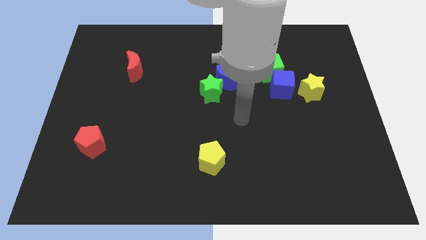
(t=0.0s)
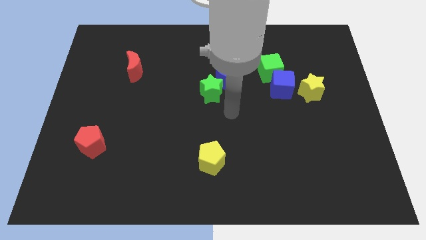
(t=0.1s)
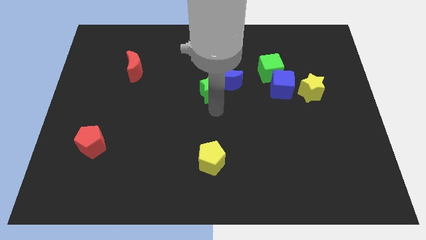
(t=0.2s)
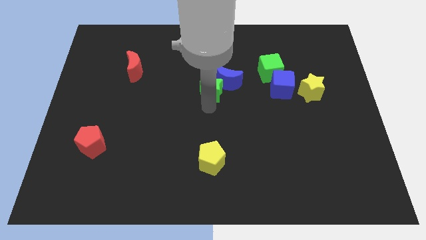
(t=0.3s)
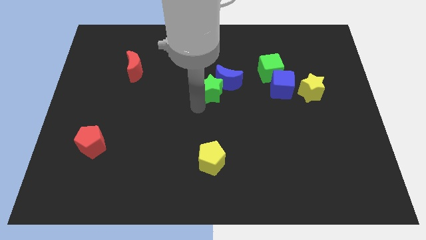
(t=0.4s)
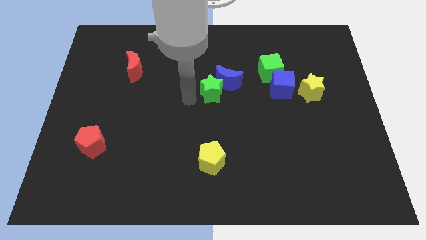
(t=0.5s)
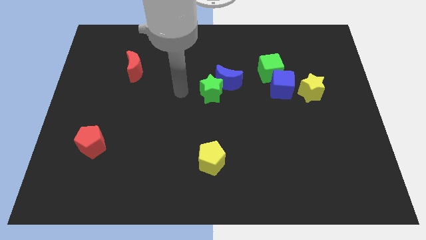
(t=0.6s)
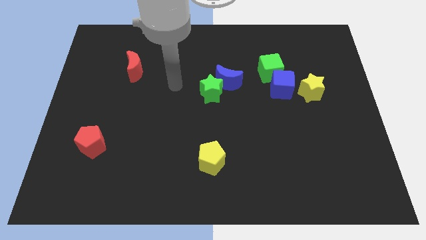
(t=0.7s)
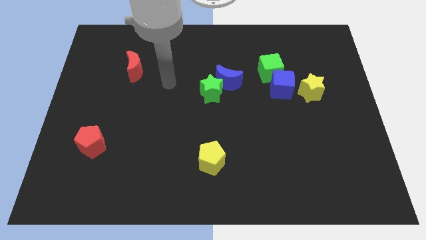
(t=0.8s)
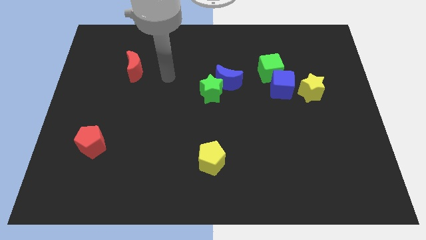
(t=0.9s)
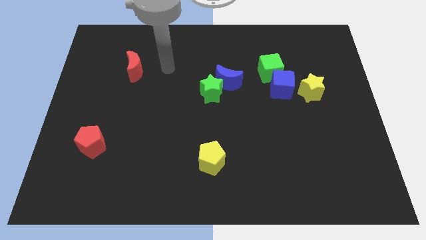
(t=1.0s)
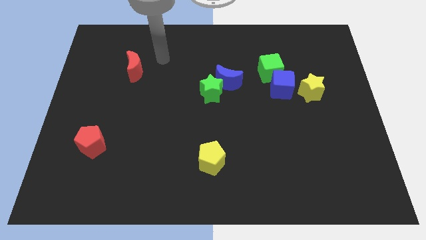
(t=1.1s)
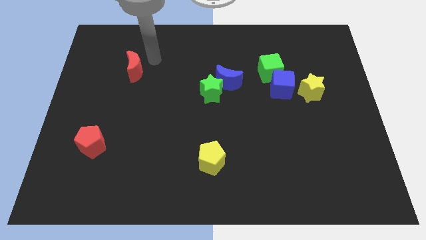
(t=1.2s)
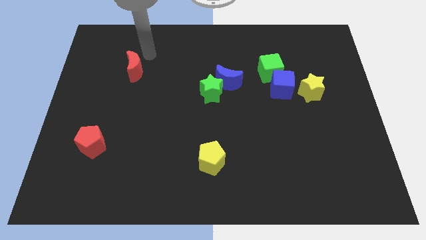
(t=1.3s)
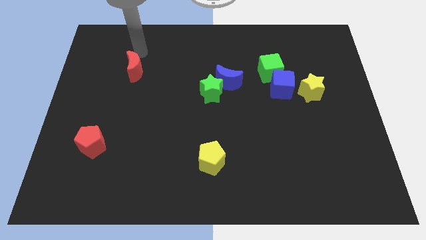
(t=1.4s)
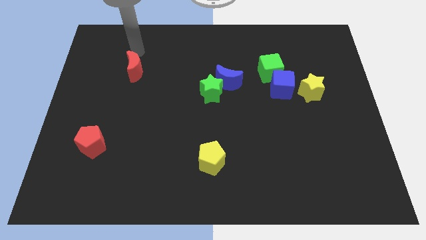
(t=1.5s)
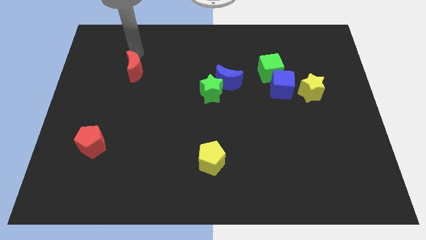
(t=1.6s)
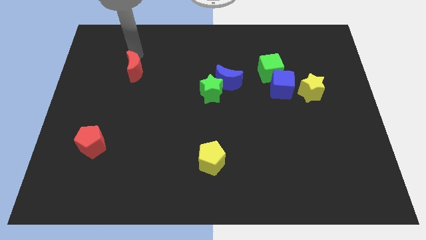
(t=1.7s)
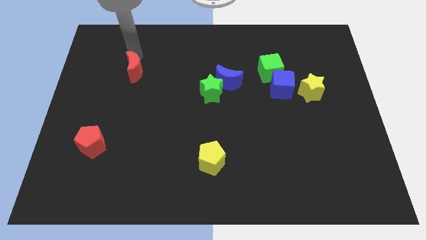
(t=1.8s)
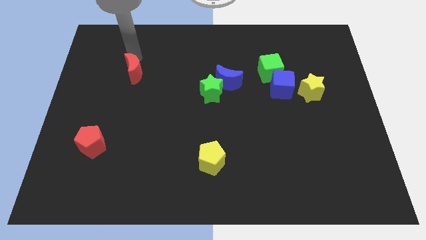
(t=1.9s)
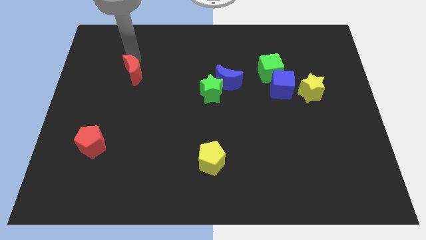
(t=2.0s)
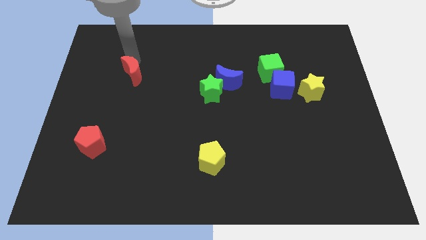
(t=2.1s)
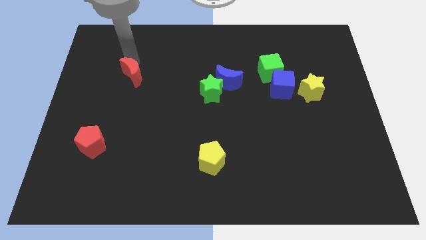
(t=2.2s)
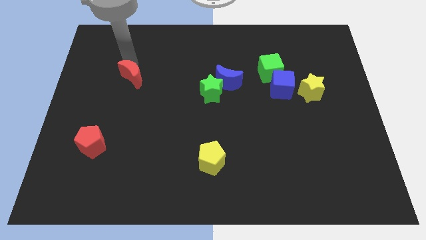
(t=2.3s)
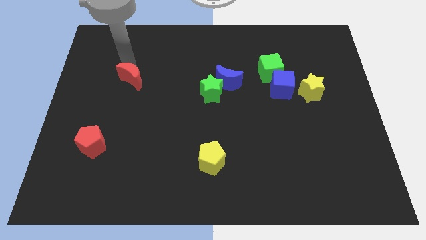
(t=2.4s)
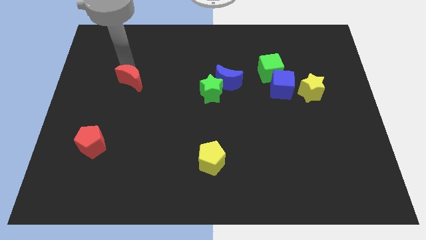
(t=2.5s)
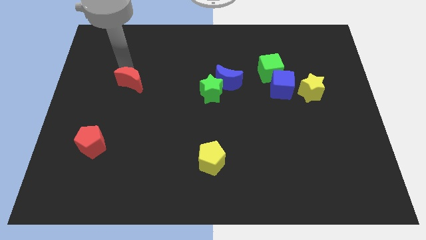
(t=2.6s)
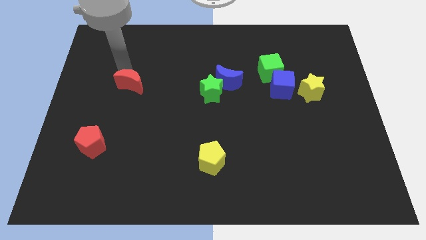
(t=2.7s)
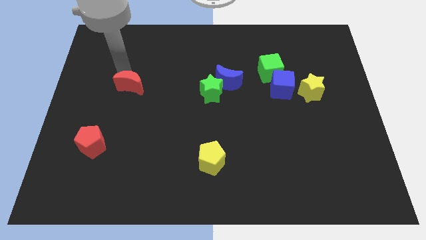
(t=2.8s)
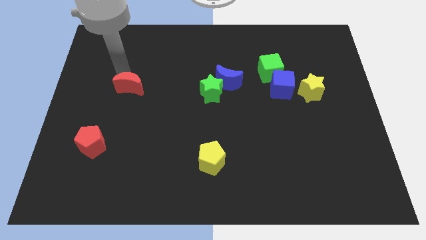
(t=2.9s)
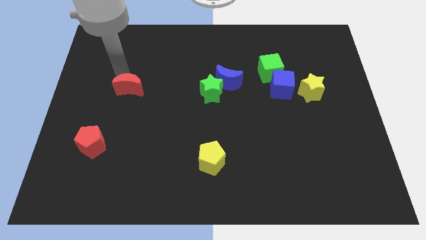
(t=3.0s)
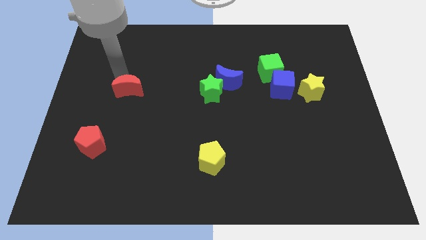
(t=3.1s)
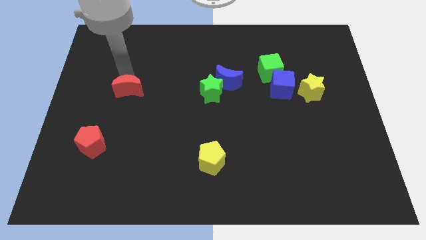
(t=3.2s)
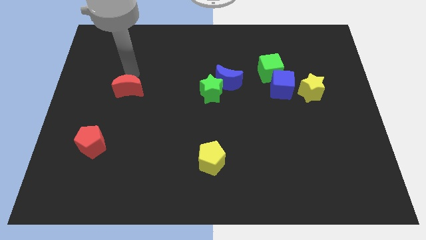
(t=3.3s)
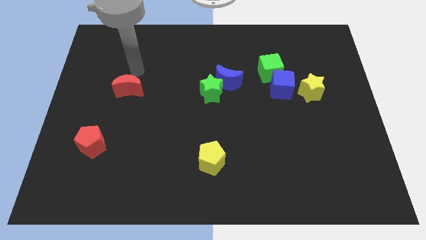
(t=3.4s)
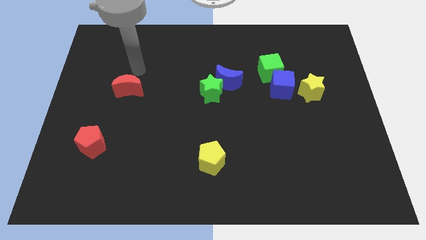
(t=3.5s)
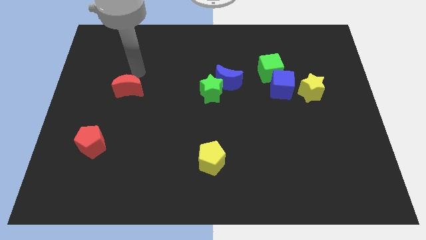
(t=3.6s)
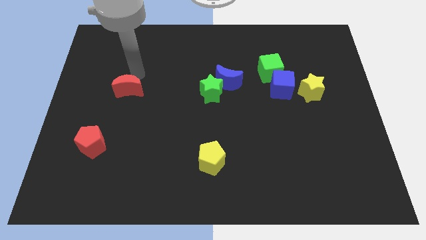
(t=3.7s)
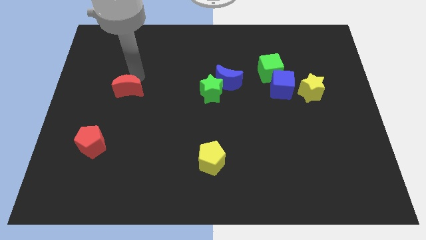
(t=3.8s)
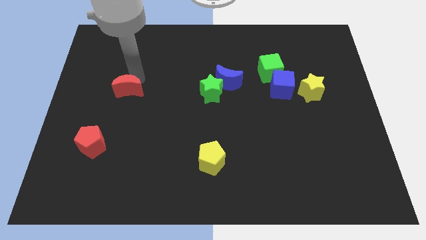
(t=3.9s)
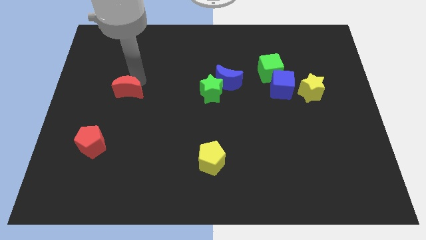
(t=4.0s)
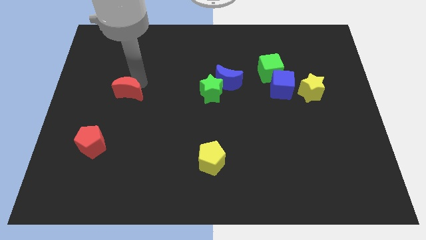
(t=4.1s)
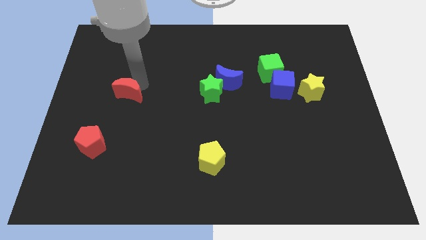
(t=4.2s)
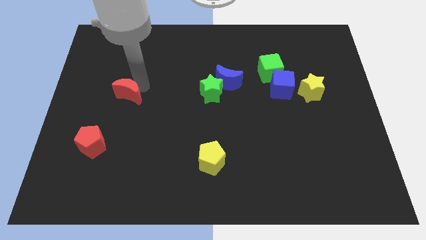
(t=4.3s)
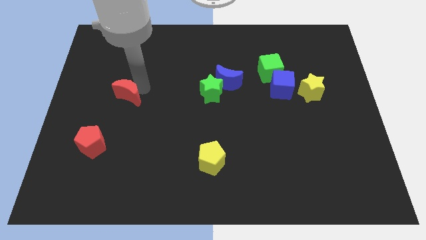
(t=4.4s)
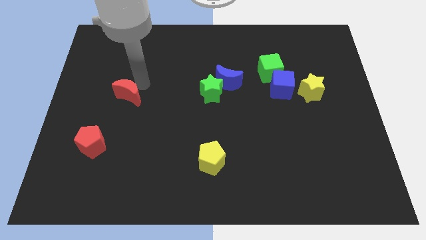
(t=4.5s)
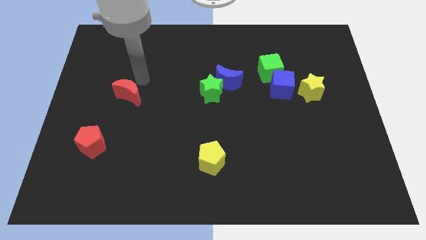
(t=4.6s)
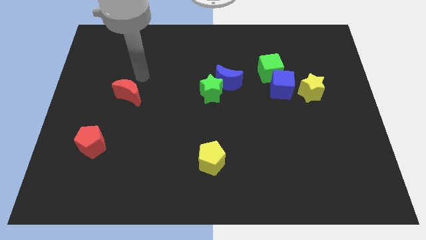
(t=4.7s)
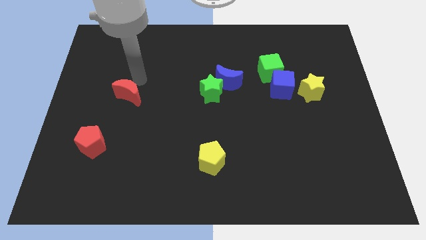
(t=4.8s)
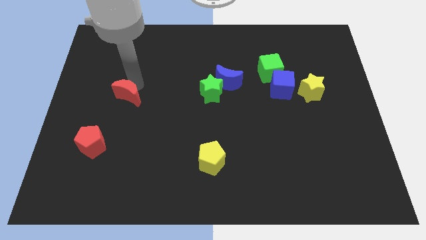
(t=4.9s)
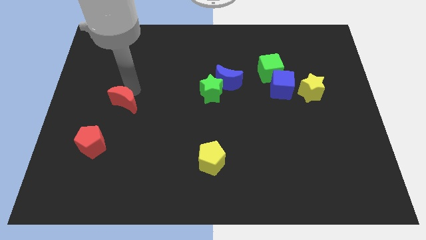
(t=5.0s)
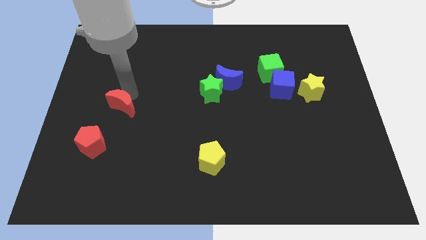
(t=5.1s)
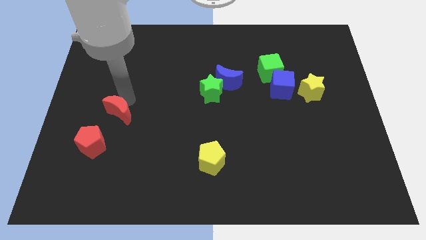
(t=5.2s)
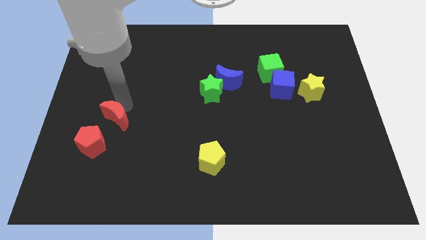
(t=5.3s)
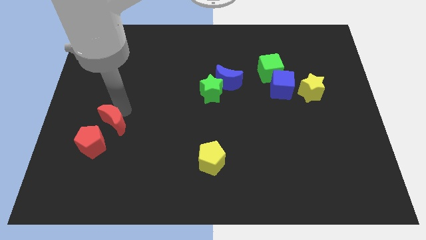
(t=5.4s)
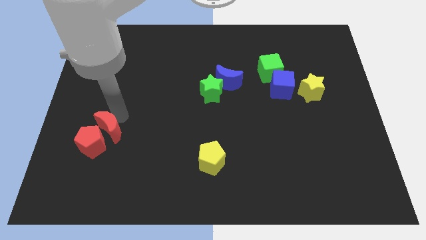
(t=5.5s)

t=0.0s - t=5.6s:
slide the red moon next to the red pentagon

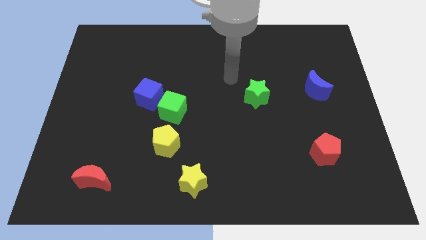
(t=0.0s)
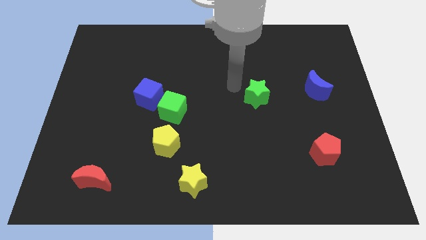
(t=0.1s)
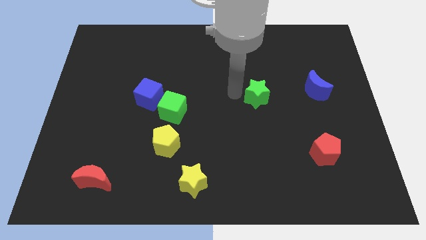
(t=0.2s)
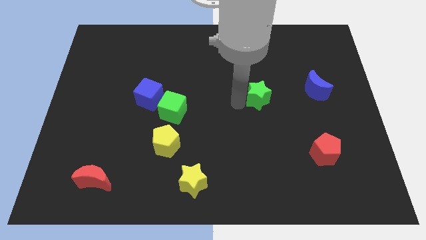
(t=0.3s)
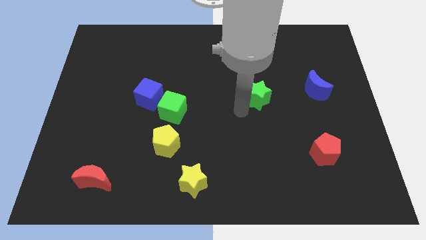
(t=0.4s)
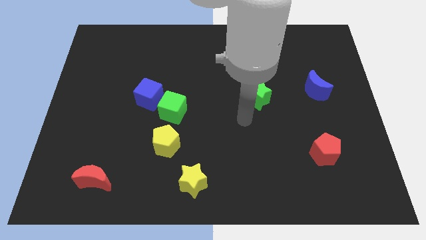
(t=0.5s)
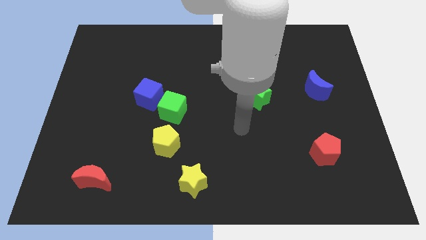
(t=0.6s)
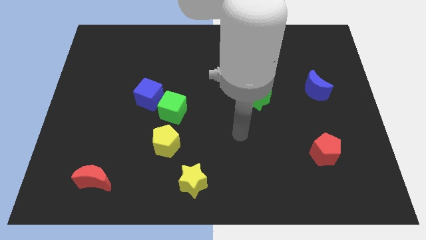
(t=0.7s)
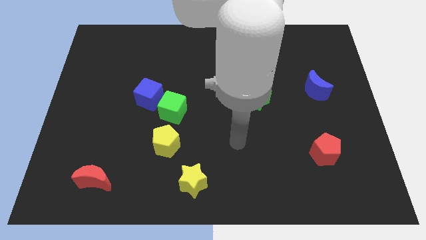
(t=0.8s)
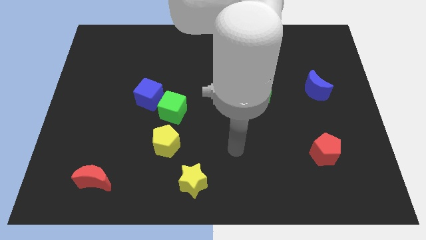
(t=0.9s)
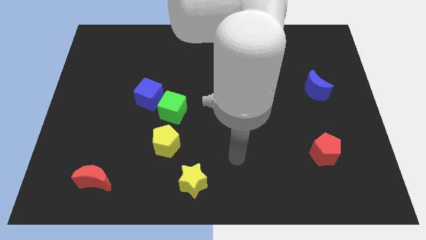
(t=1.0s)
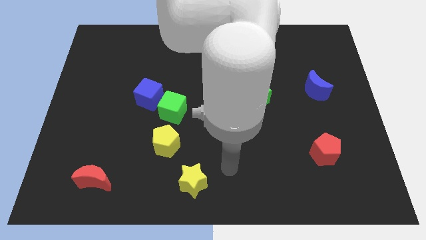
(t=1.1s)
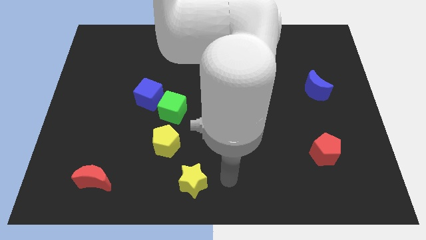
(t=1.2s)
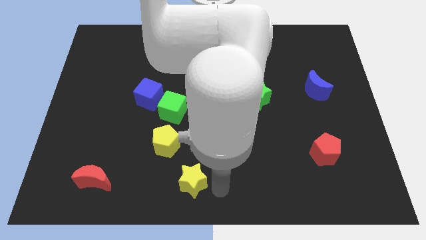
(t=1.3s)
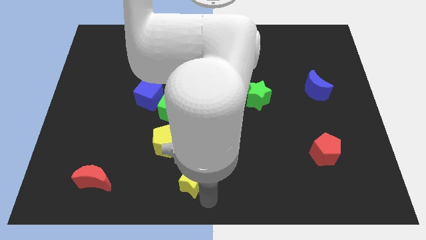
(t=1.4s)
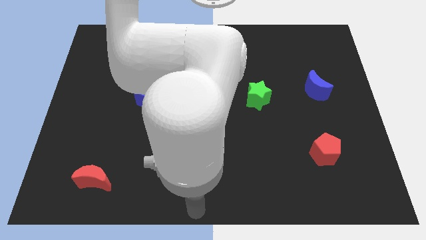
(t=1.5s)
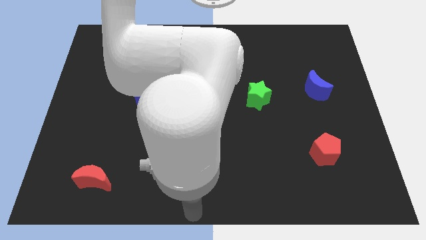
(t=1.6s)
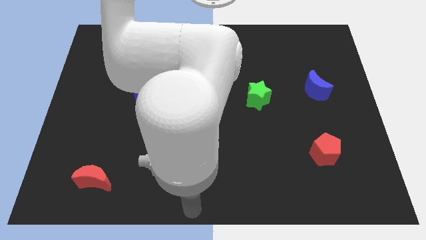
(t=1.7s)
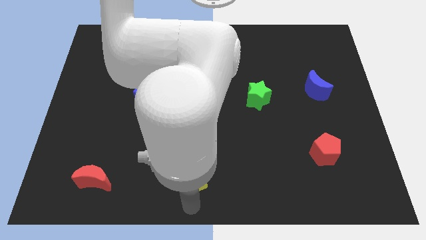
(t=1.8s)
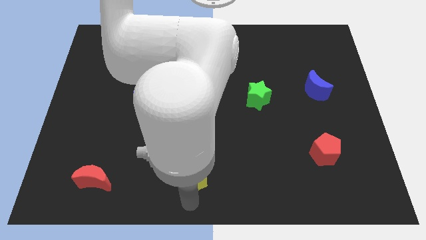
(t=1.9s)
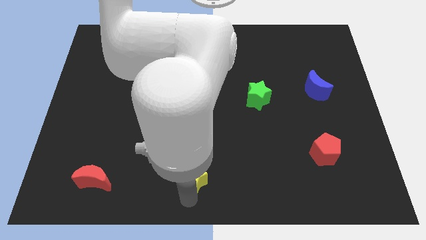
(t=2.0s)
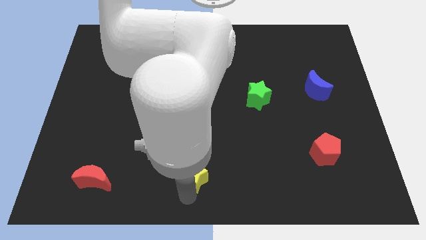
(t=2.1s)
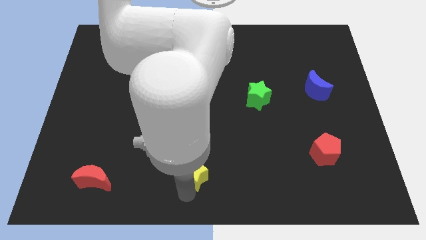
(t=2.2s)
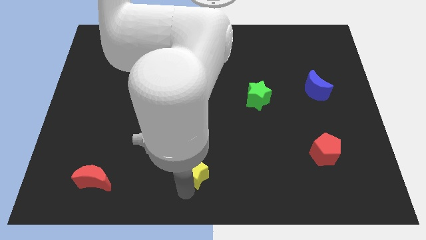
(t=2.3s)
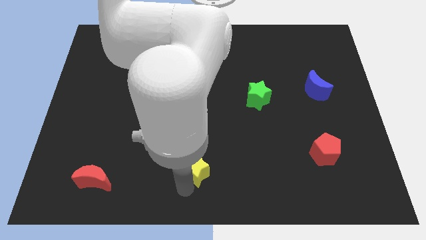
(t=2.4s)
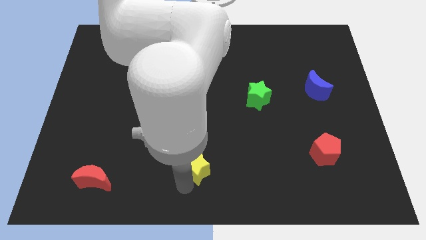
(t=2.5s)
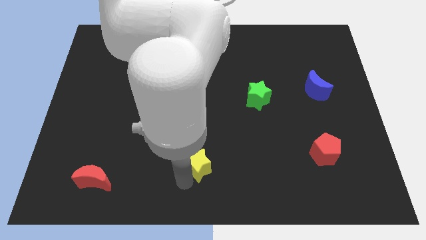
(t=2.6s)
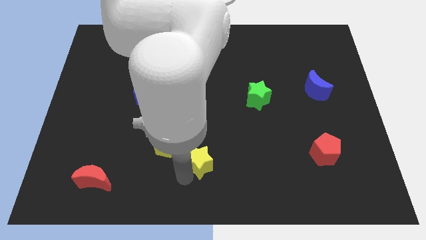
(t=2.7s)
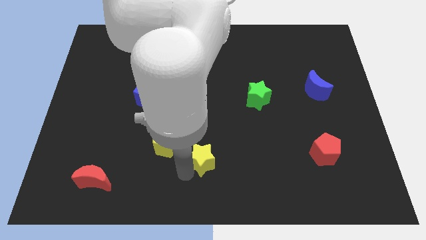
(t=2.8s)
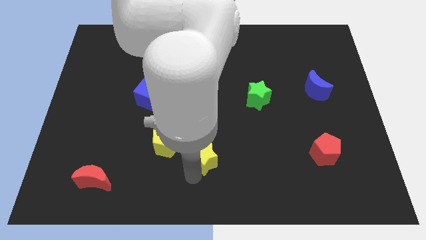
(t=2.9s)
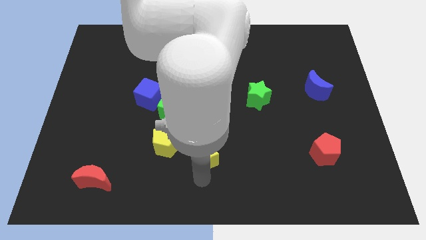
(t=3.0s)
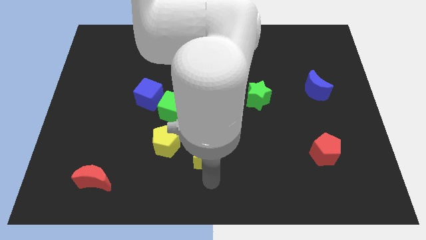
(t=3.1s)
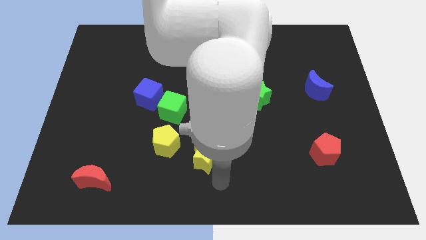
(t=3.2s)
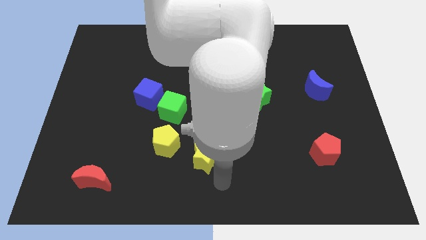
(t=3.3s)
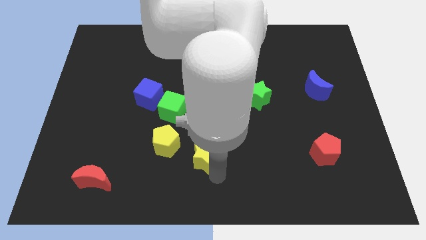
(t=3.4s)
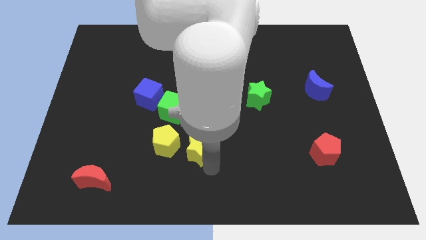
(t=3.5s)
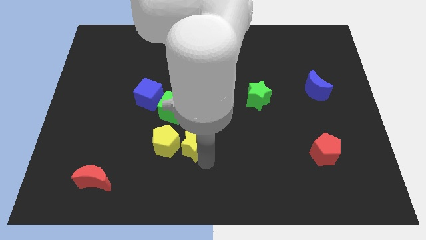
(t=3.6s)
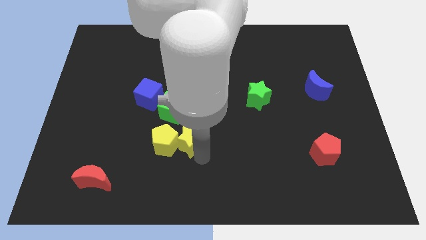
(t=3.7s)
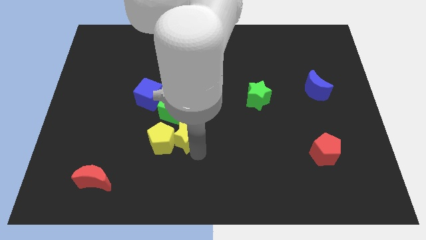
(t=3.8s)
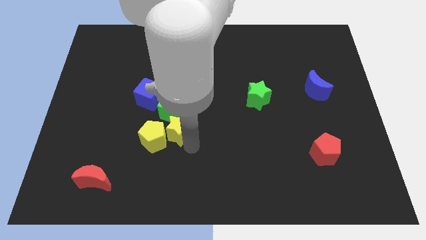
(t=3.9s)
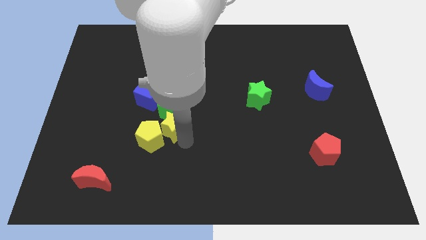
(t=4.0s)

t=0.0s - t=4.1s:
push the yellow star next to the green cube
